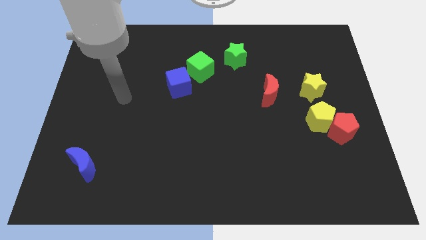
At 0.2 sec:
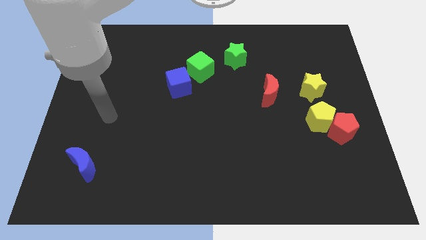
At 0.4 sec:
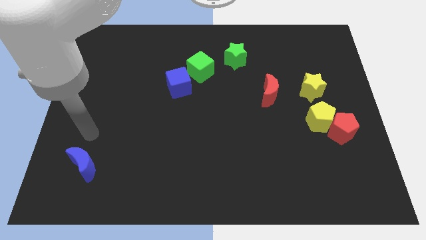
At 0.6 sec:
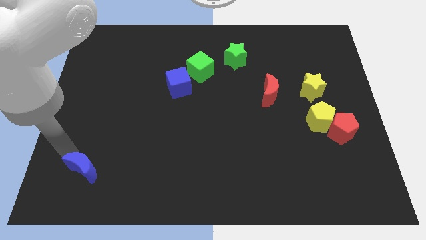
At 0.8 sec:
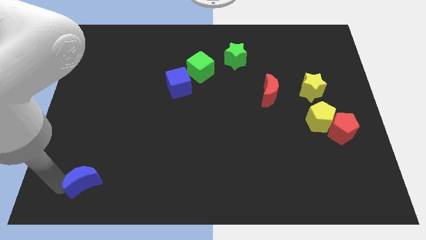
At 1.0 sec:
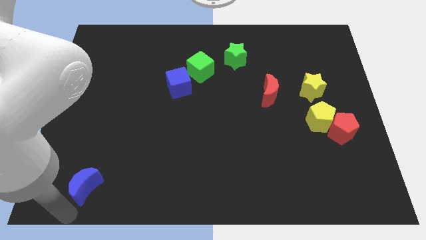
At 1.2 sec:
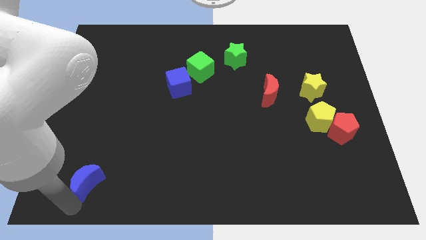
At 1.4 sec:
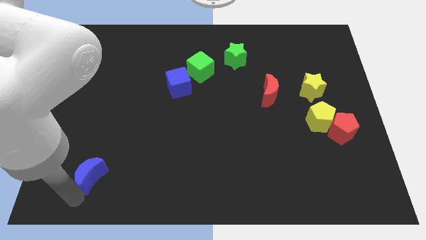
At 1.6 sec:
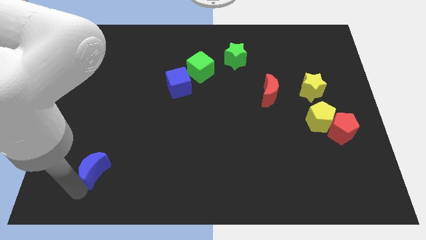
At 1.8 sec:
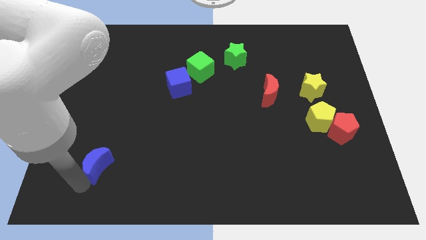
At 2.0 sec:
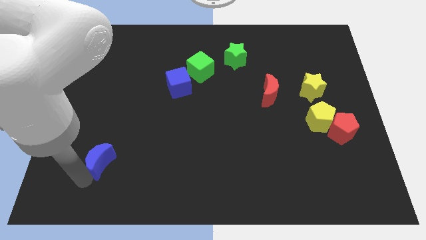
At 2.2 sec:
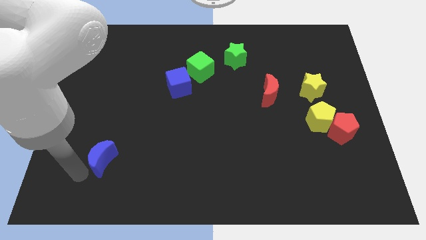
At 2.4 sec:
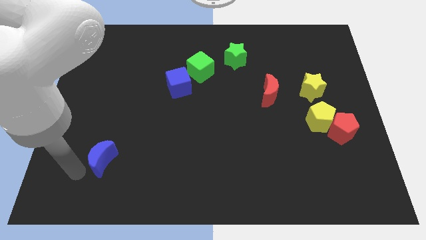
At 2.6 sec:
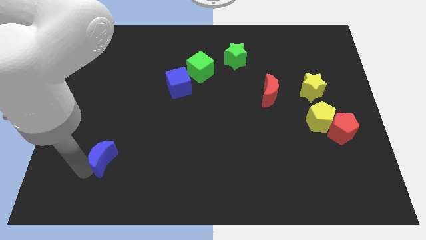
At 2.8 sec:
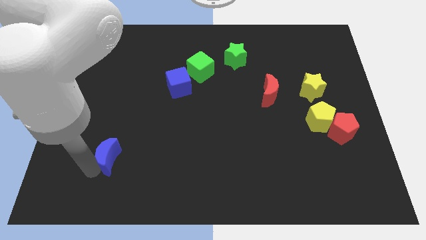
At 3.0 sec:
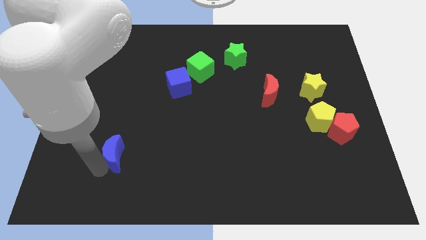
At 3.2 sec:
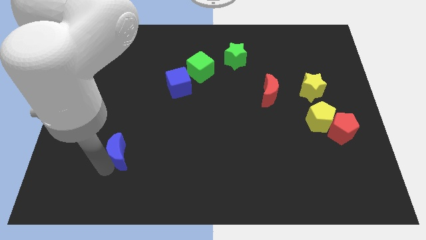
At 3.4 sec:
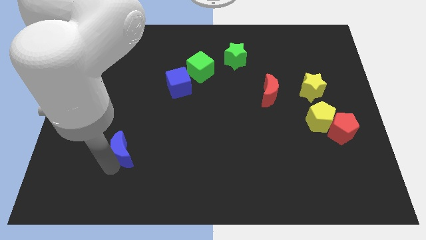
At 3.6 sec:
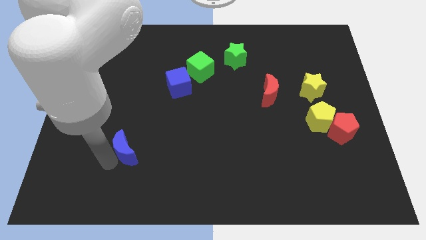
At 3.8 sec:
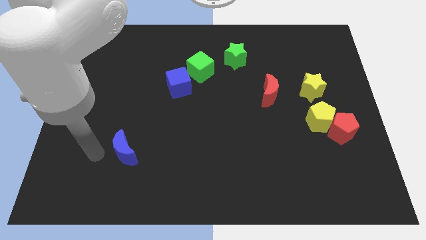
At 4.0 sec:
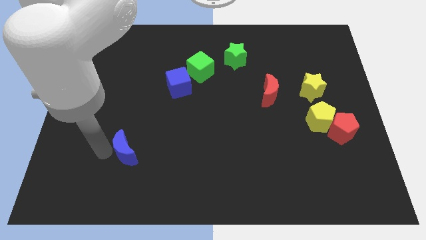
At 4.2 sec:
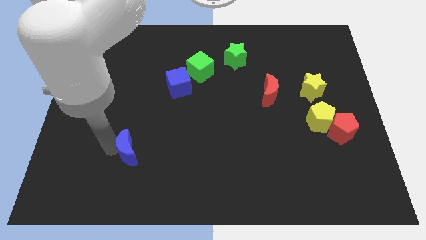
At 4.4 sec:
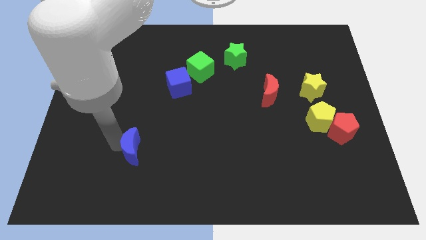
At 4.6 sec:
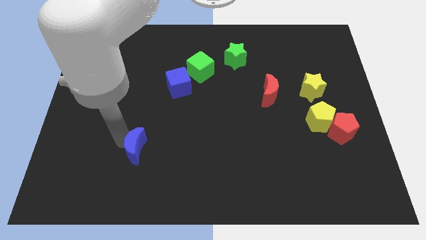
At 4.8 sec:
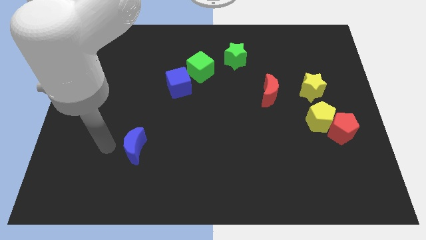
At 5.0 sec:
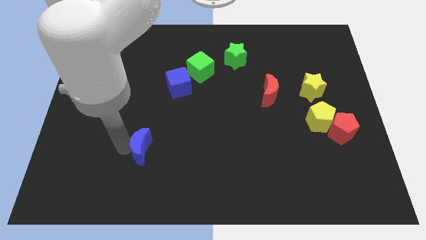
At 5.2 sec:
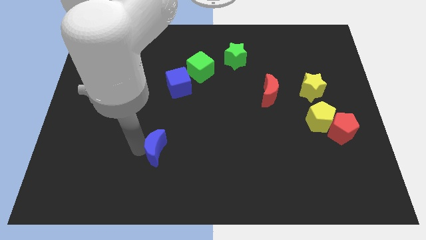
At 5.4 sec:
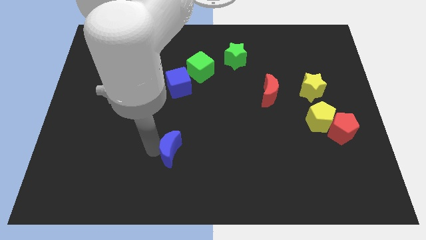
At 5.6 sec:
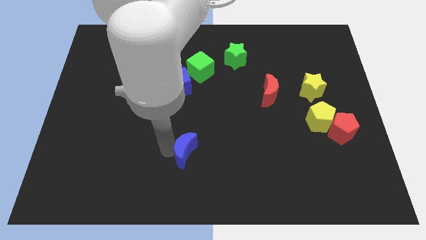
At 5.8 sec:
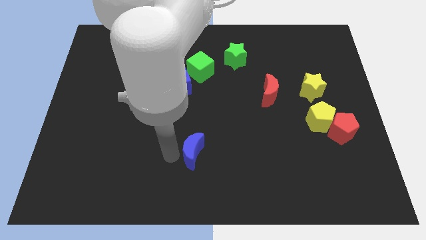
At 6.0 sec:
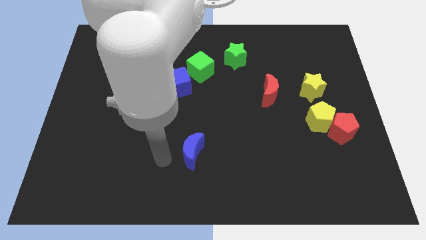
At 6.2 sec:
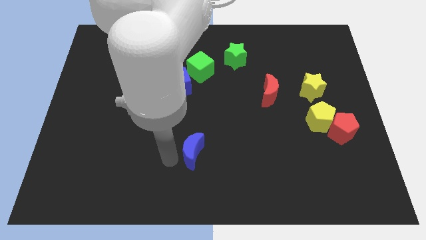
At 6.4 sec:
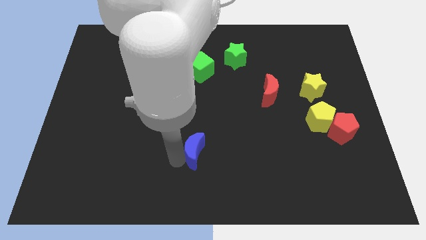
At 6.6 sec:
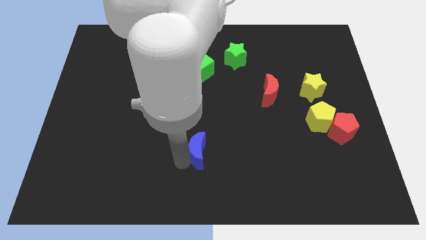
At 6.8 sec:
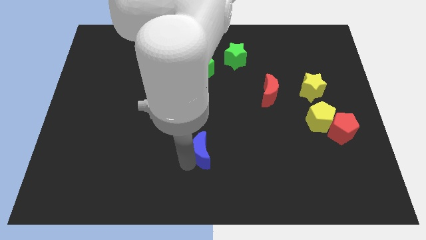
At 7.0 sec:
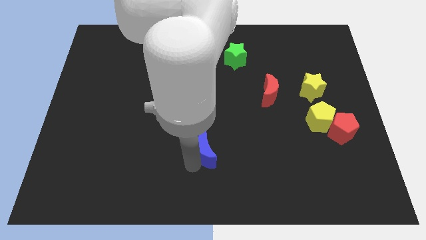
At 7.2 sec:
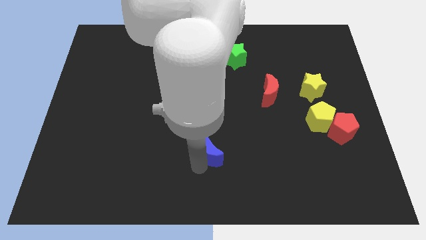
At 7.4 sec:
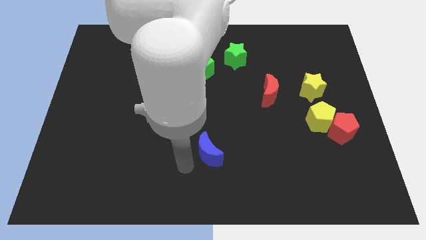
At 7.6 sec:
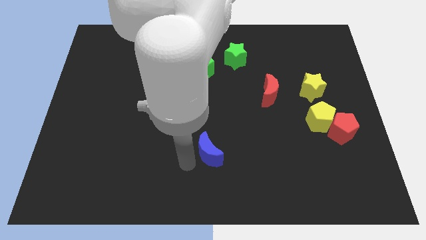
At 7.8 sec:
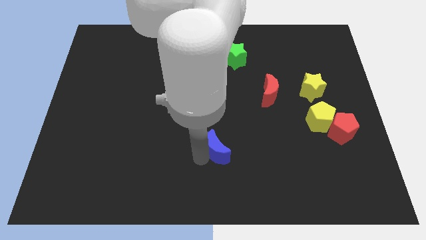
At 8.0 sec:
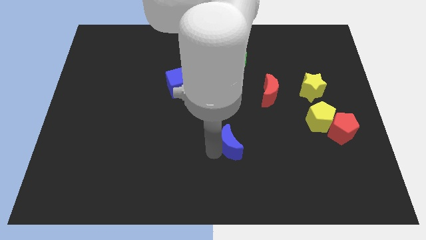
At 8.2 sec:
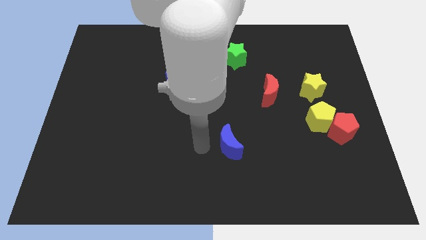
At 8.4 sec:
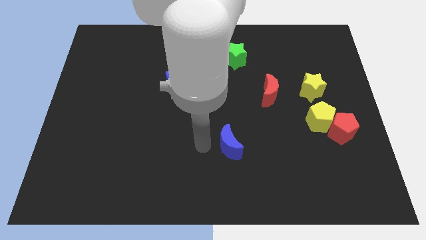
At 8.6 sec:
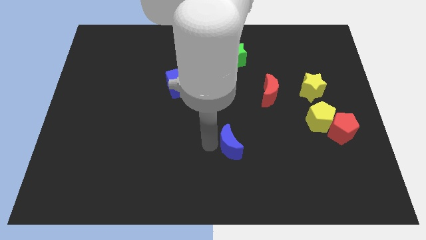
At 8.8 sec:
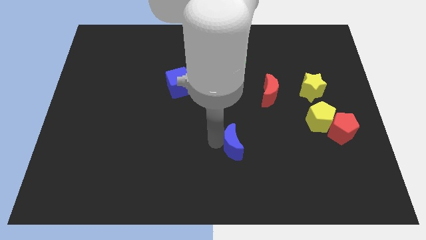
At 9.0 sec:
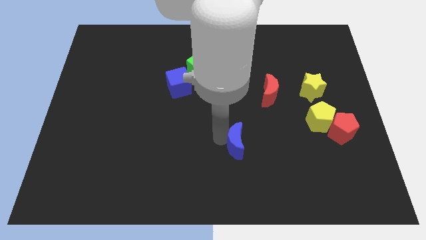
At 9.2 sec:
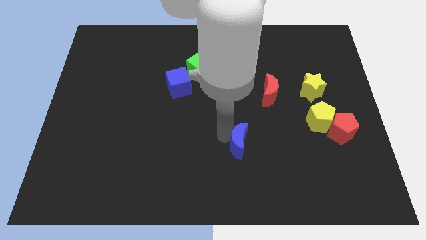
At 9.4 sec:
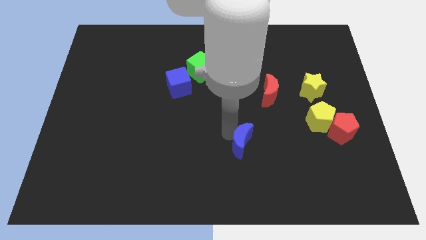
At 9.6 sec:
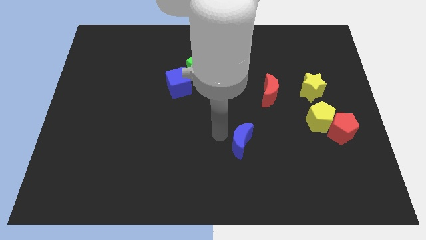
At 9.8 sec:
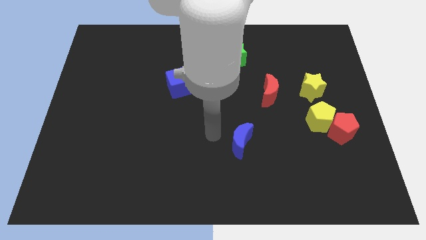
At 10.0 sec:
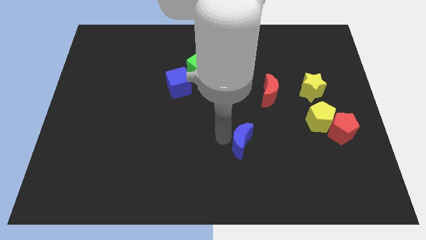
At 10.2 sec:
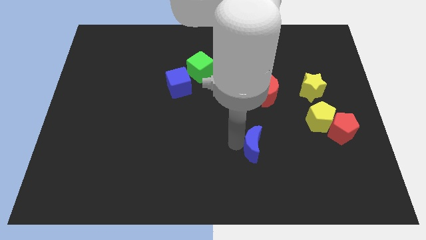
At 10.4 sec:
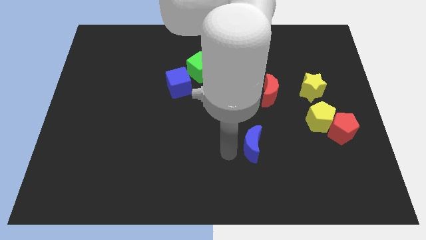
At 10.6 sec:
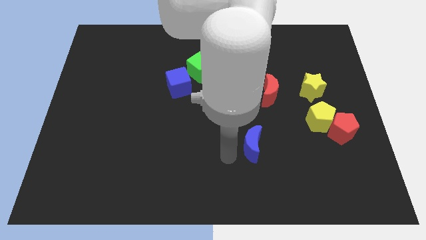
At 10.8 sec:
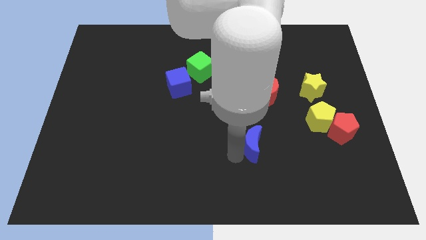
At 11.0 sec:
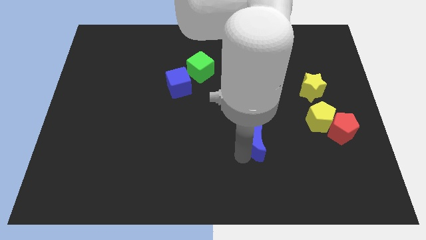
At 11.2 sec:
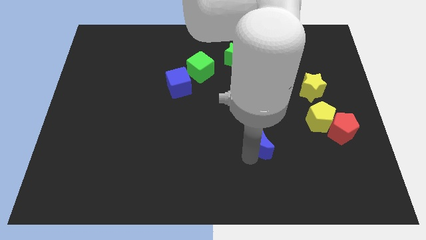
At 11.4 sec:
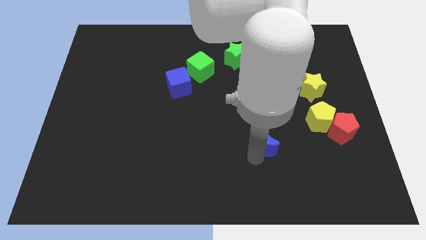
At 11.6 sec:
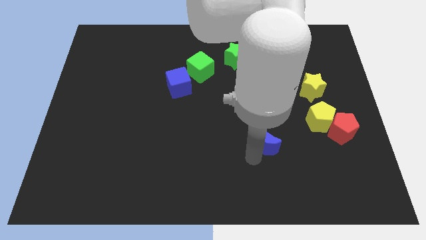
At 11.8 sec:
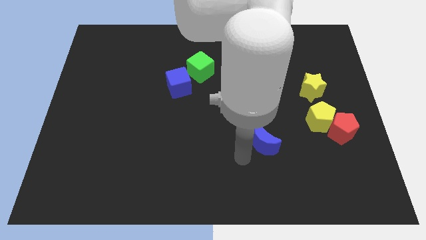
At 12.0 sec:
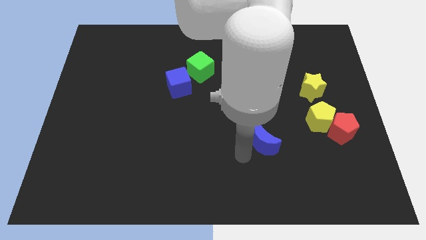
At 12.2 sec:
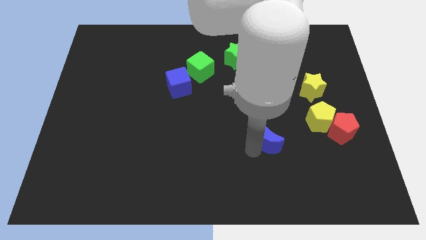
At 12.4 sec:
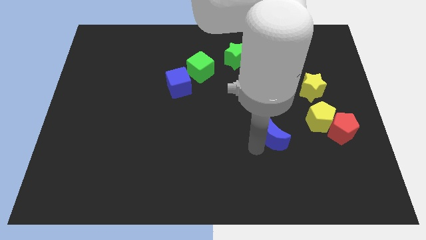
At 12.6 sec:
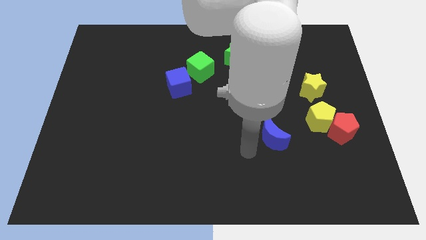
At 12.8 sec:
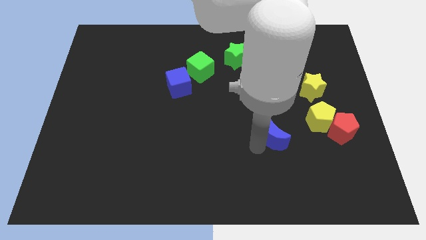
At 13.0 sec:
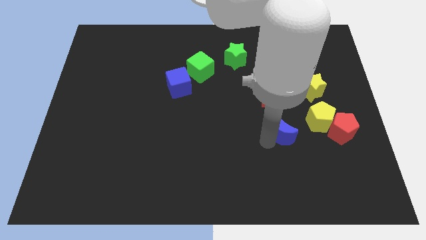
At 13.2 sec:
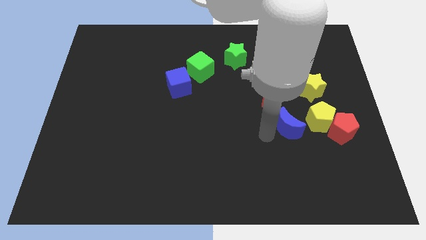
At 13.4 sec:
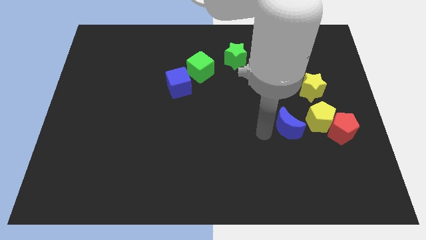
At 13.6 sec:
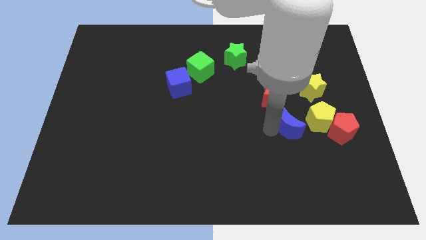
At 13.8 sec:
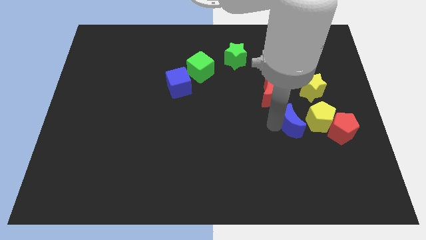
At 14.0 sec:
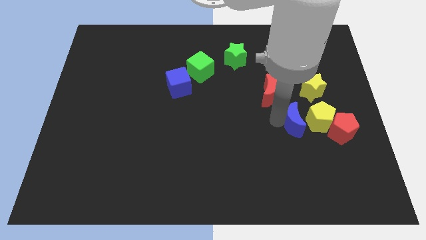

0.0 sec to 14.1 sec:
push the blue moon next to the yellow pentagon
